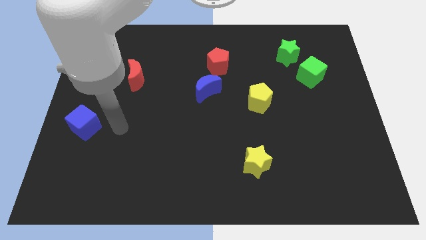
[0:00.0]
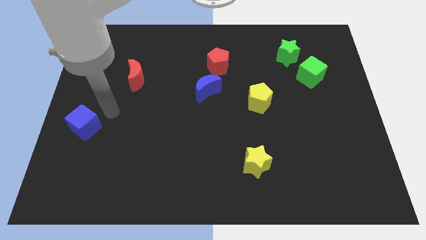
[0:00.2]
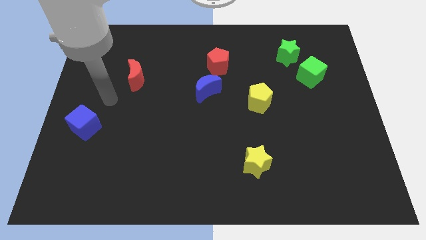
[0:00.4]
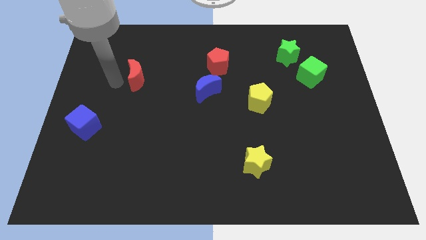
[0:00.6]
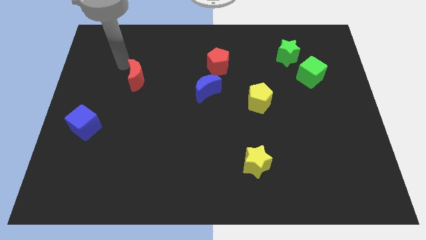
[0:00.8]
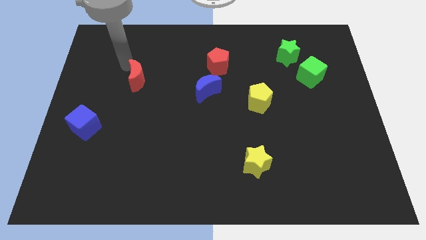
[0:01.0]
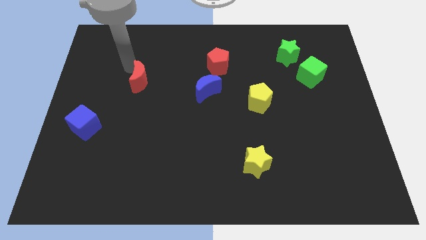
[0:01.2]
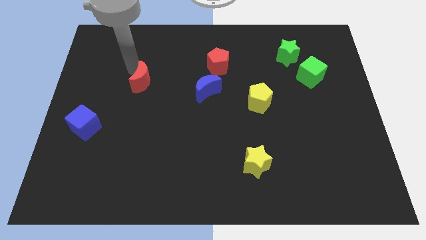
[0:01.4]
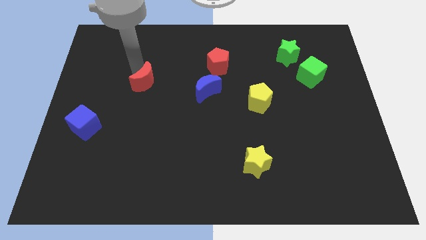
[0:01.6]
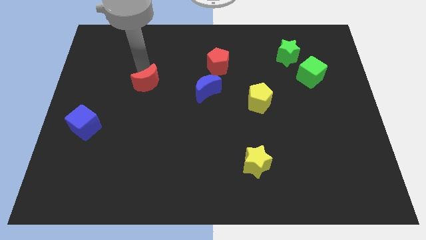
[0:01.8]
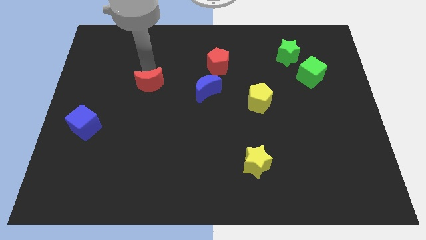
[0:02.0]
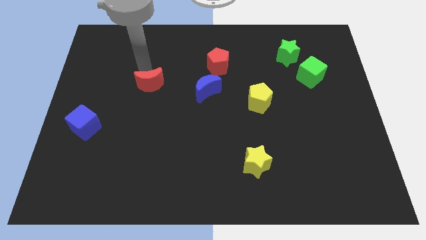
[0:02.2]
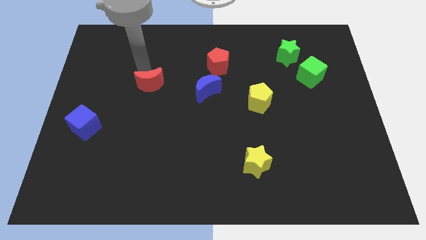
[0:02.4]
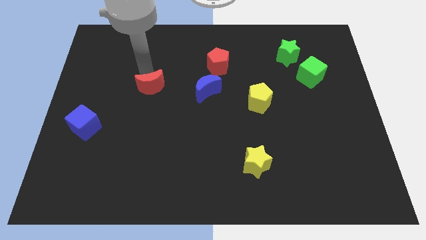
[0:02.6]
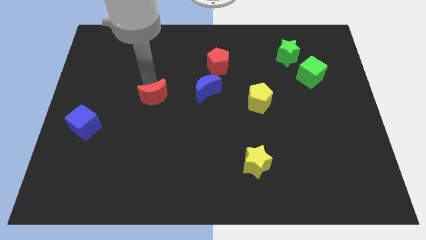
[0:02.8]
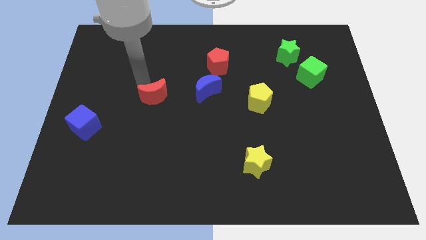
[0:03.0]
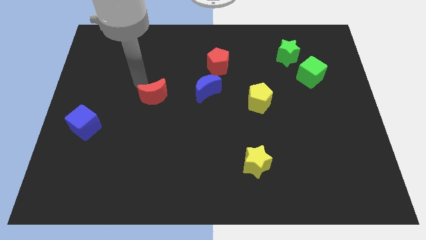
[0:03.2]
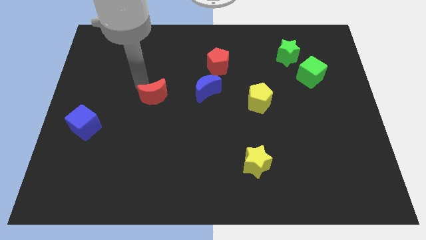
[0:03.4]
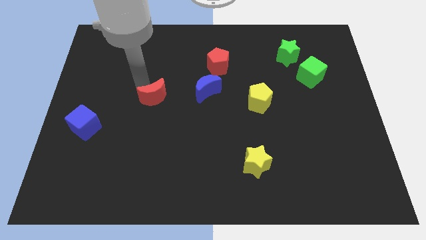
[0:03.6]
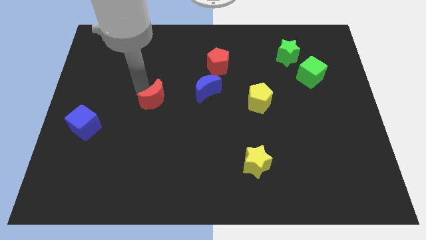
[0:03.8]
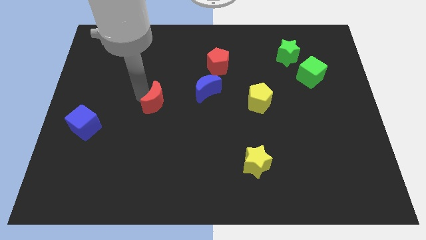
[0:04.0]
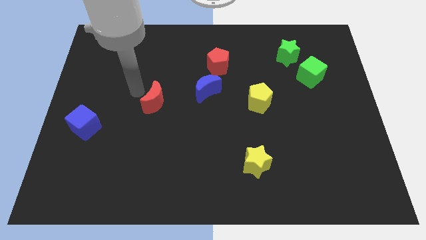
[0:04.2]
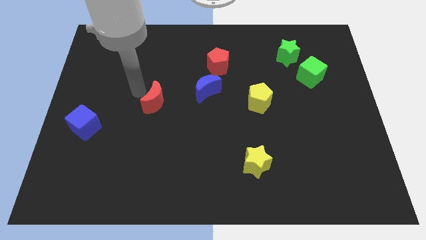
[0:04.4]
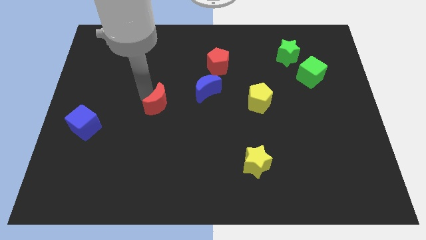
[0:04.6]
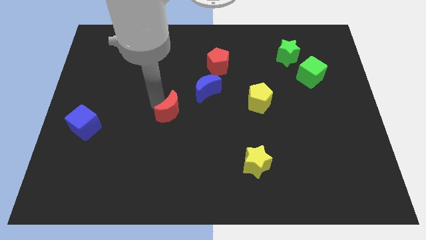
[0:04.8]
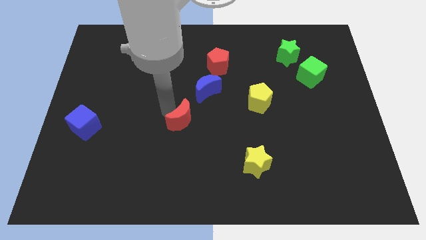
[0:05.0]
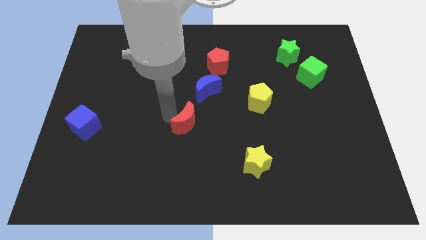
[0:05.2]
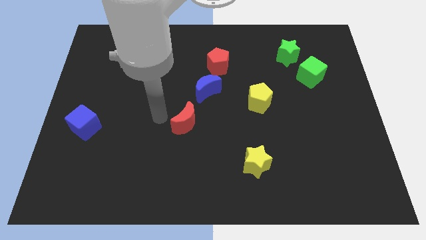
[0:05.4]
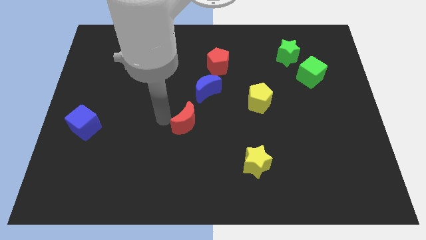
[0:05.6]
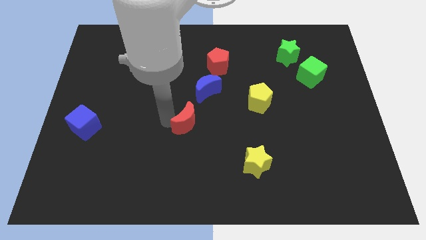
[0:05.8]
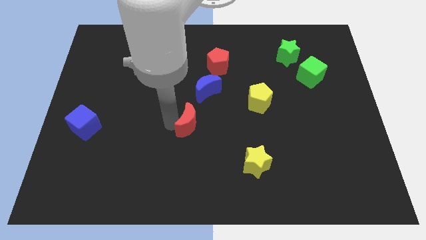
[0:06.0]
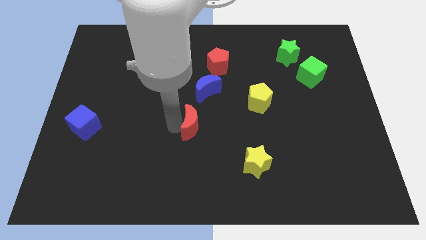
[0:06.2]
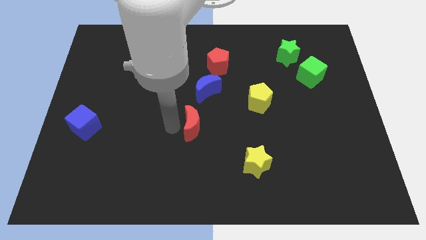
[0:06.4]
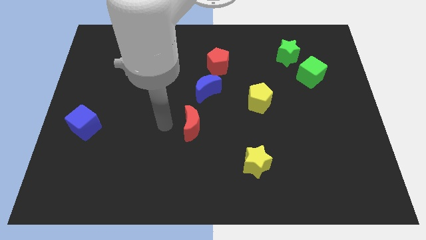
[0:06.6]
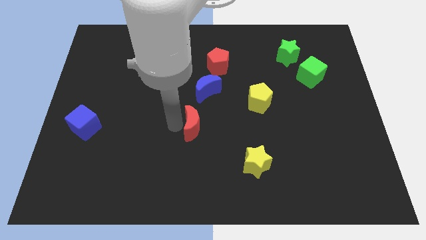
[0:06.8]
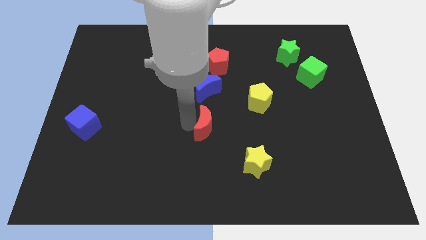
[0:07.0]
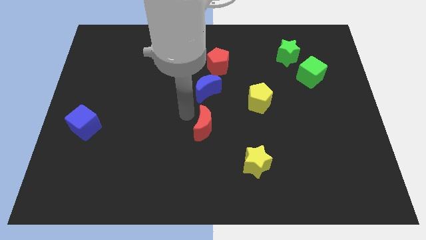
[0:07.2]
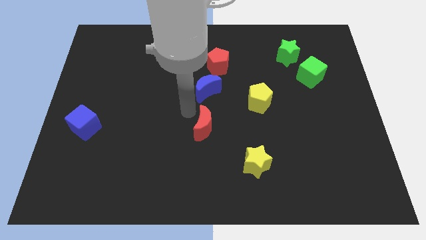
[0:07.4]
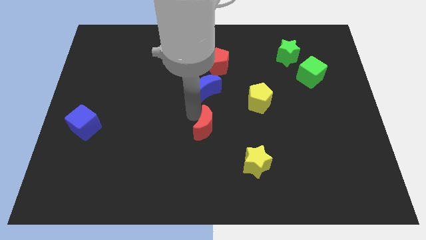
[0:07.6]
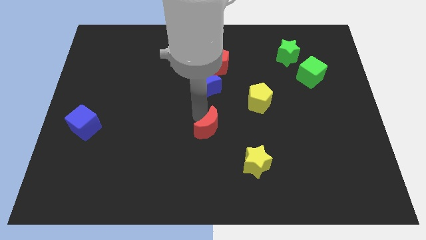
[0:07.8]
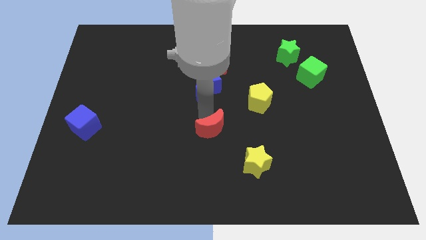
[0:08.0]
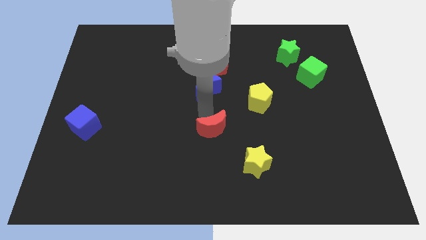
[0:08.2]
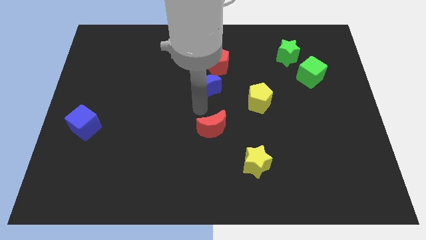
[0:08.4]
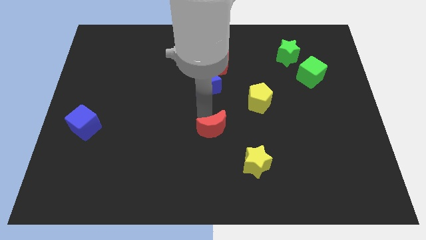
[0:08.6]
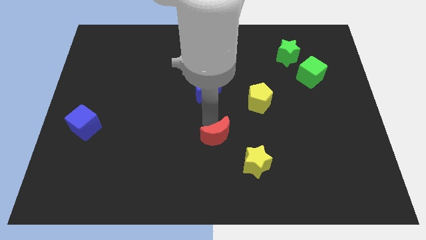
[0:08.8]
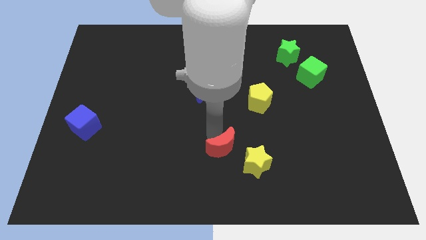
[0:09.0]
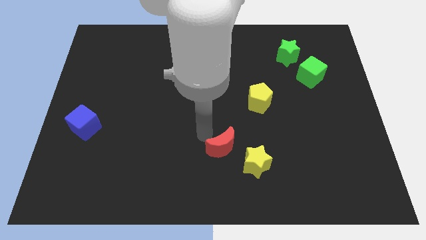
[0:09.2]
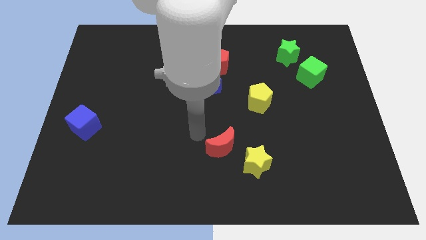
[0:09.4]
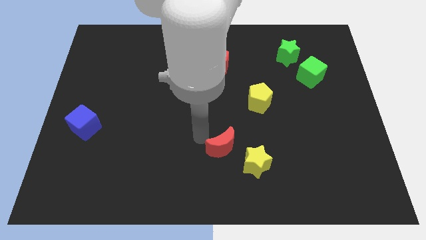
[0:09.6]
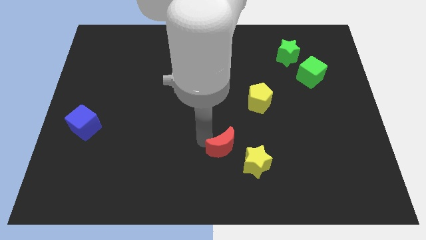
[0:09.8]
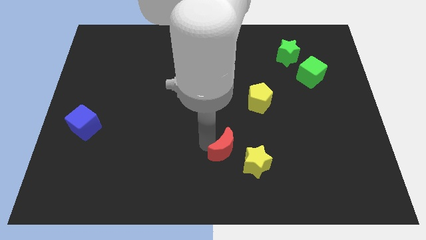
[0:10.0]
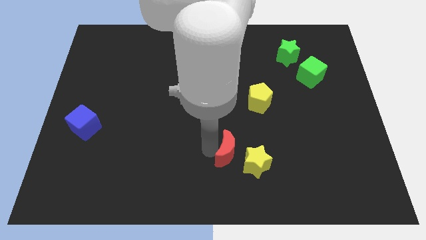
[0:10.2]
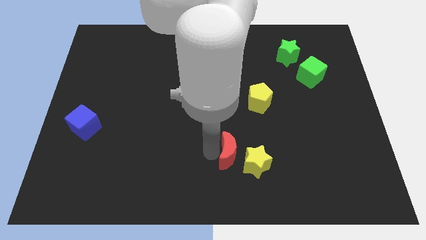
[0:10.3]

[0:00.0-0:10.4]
put the red moon close to the yellow star

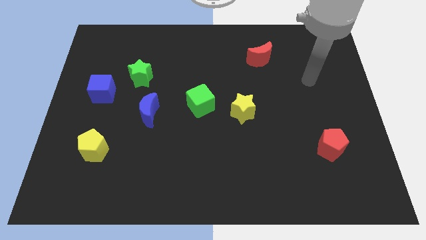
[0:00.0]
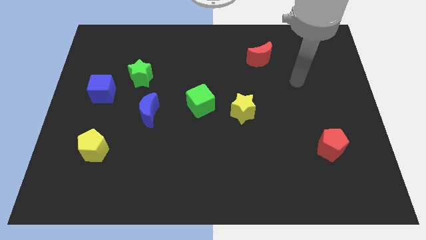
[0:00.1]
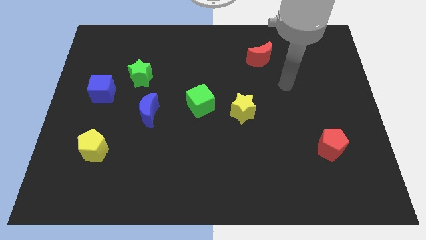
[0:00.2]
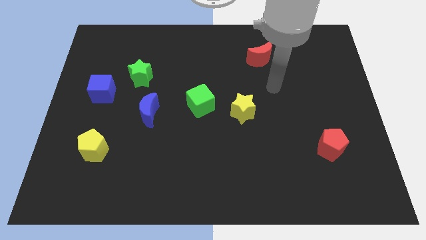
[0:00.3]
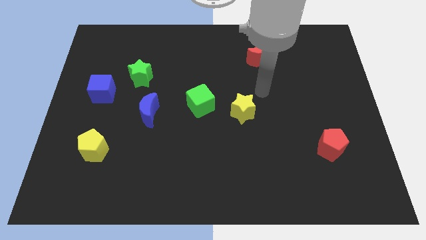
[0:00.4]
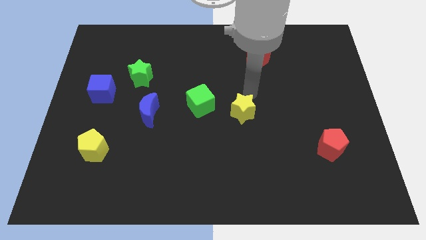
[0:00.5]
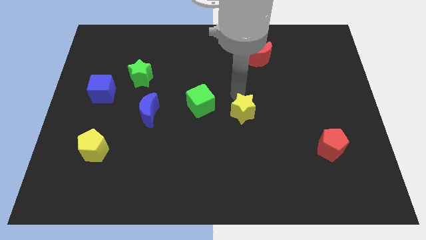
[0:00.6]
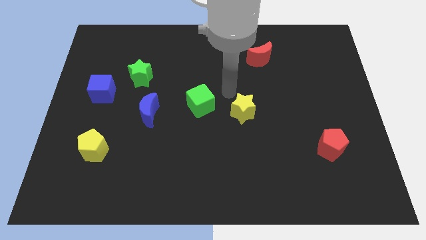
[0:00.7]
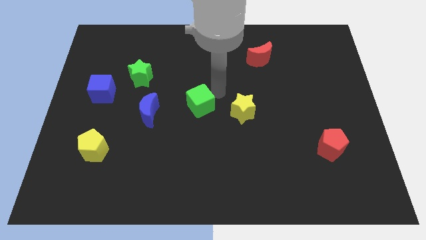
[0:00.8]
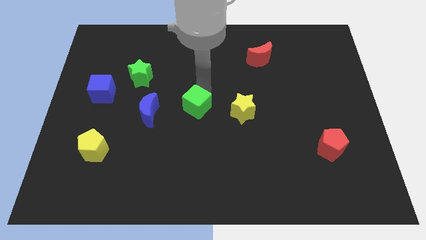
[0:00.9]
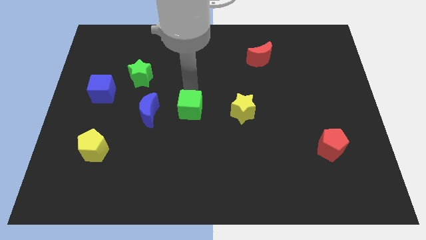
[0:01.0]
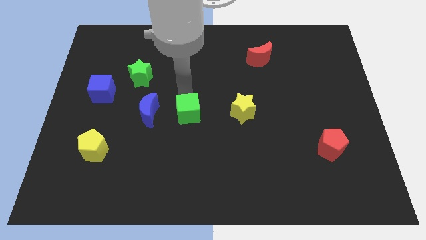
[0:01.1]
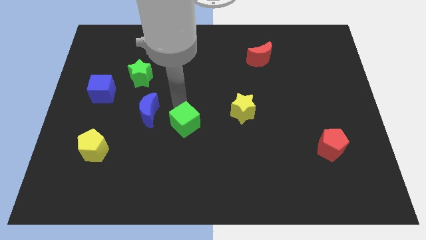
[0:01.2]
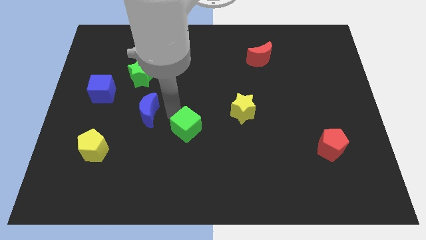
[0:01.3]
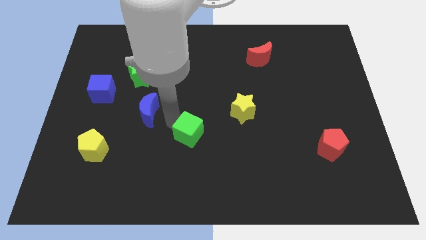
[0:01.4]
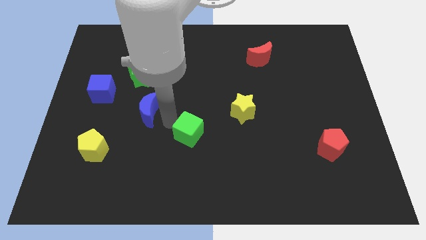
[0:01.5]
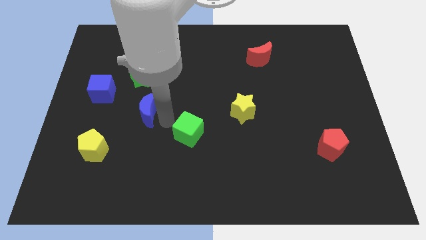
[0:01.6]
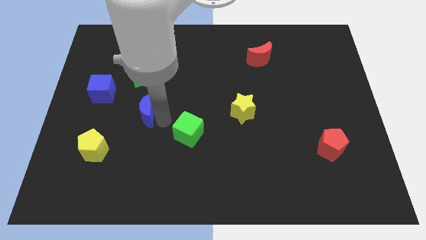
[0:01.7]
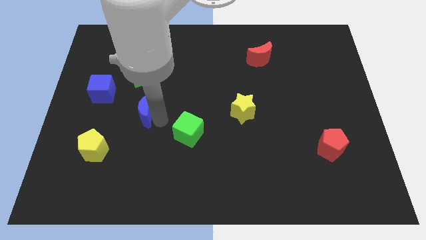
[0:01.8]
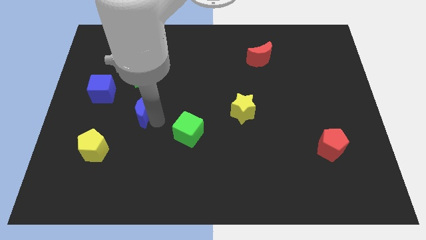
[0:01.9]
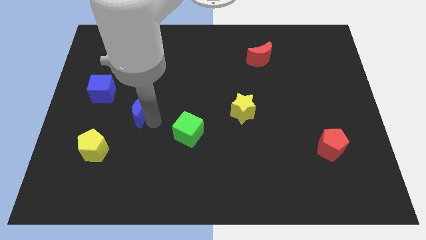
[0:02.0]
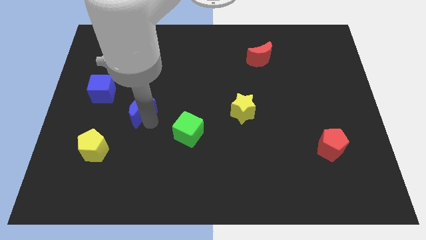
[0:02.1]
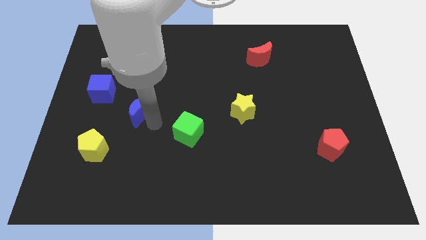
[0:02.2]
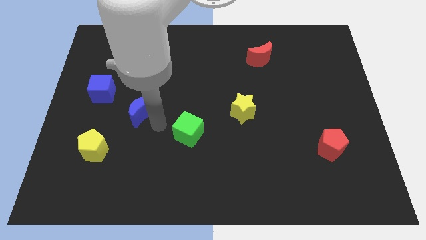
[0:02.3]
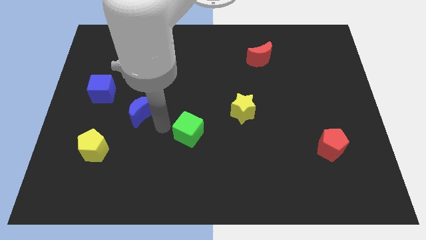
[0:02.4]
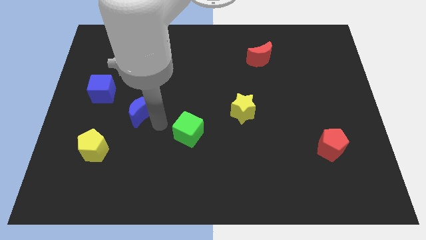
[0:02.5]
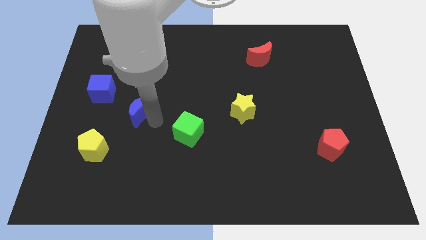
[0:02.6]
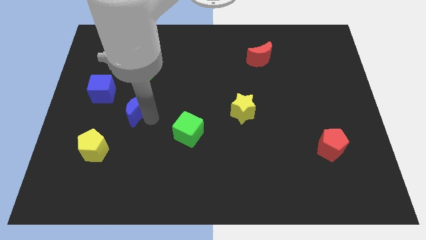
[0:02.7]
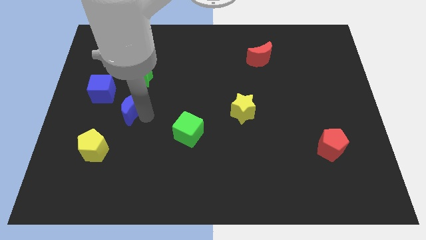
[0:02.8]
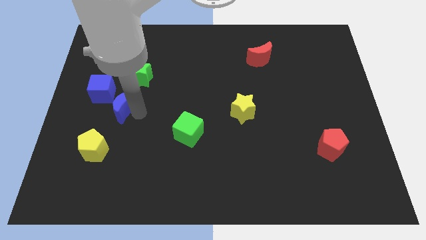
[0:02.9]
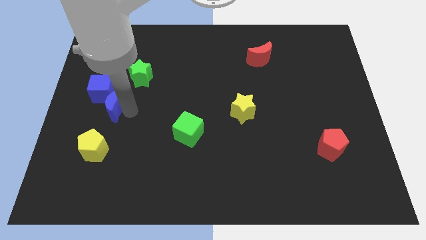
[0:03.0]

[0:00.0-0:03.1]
move the blue moon to the blue cube
